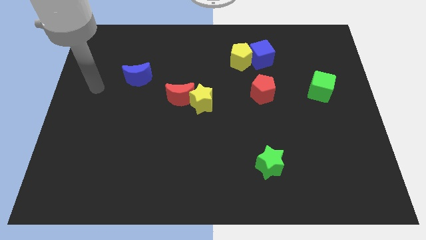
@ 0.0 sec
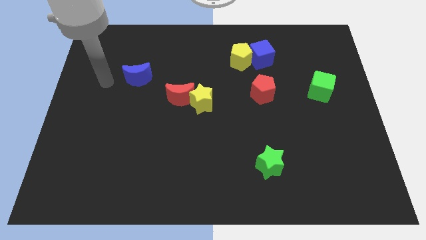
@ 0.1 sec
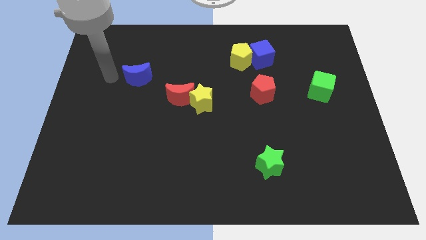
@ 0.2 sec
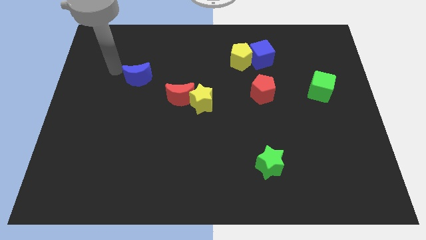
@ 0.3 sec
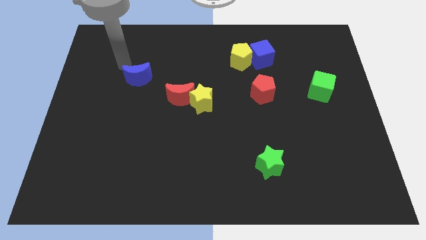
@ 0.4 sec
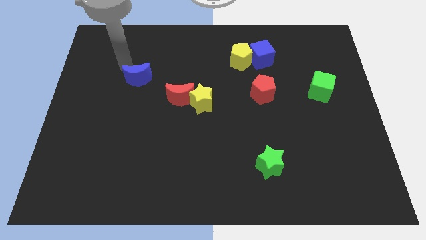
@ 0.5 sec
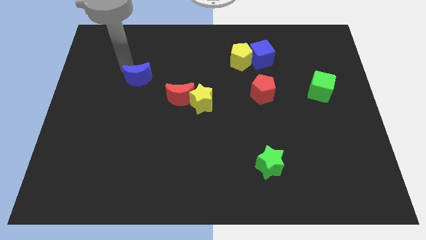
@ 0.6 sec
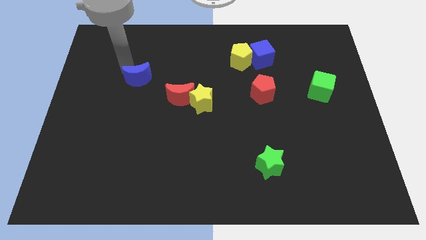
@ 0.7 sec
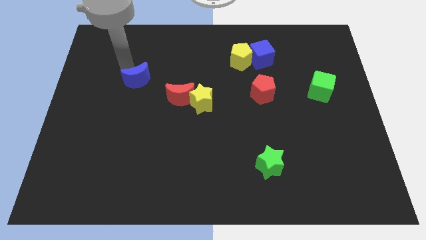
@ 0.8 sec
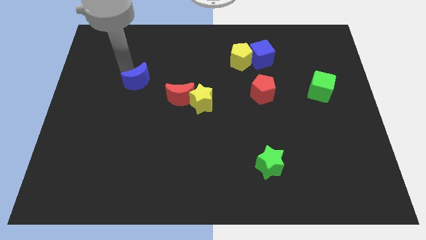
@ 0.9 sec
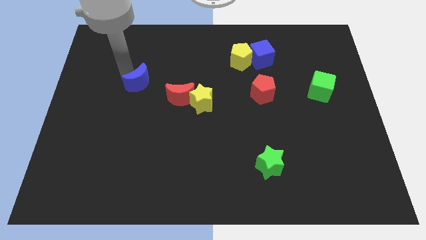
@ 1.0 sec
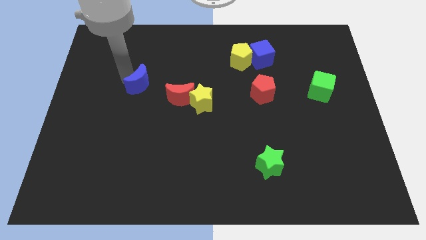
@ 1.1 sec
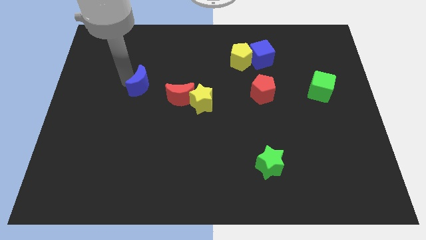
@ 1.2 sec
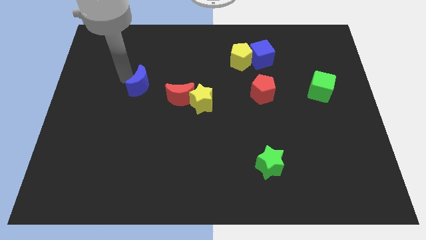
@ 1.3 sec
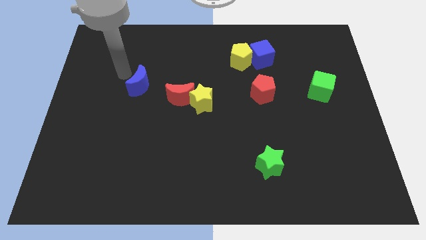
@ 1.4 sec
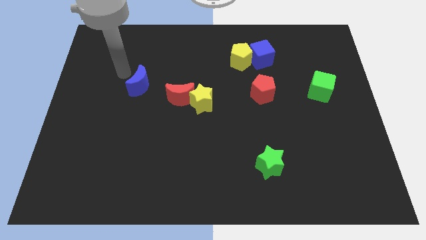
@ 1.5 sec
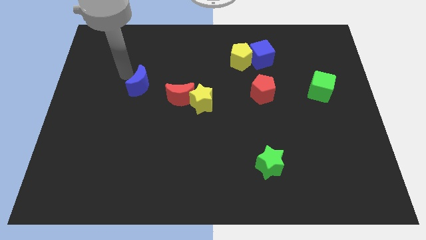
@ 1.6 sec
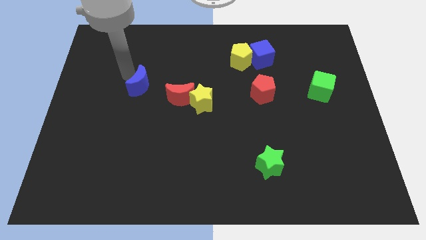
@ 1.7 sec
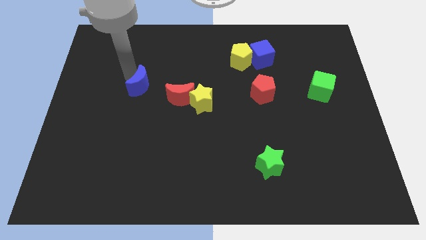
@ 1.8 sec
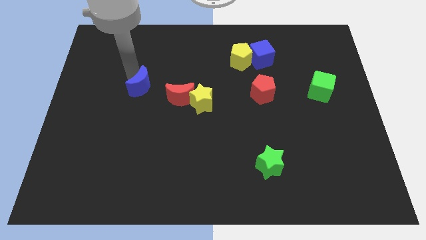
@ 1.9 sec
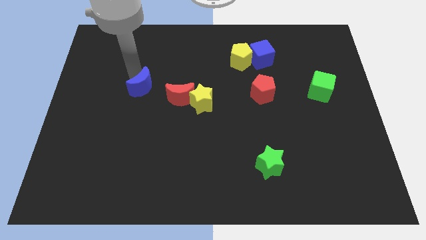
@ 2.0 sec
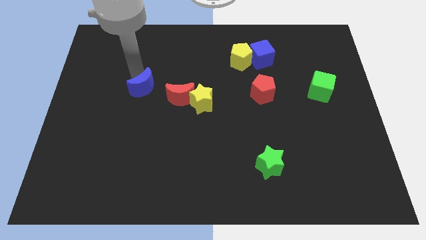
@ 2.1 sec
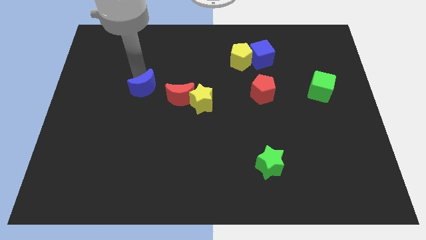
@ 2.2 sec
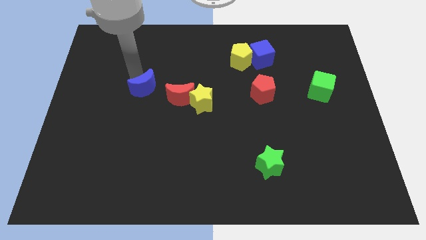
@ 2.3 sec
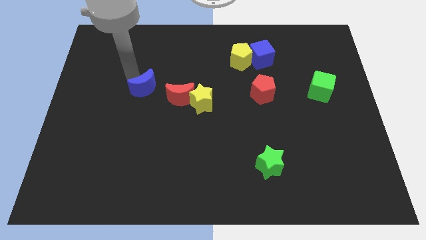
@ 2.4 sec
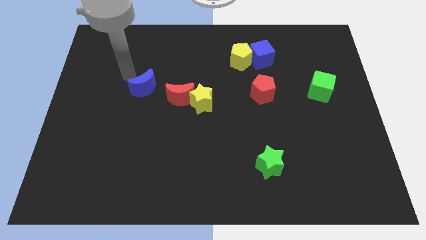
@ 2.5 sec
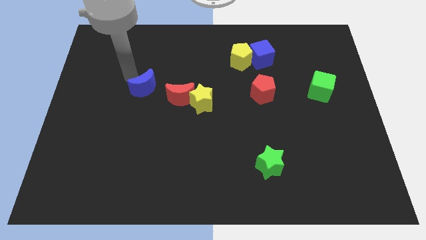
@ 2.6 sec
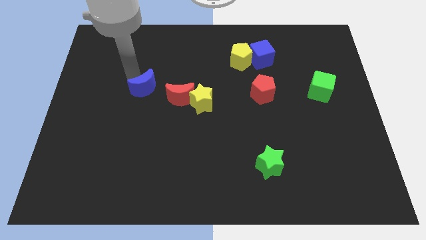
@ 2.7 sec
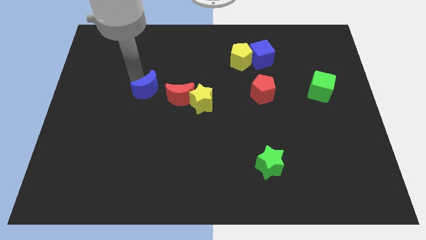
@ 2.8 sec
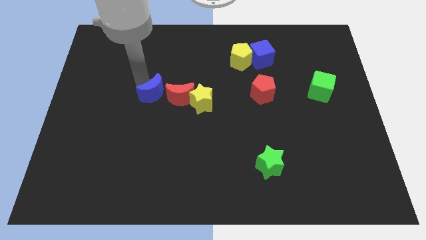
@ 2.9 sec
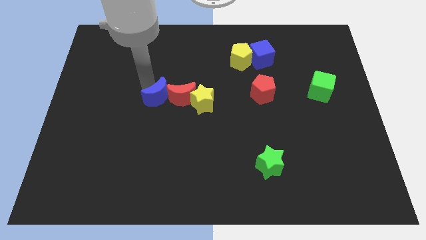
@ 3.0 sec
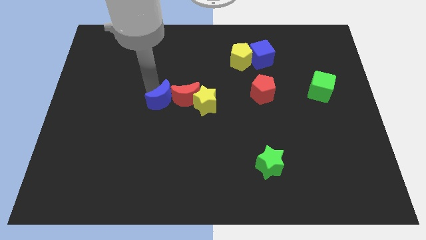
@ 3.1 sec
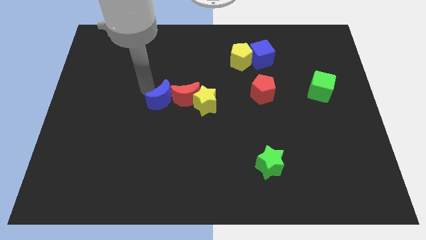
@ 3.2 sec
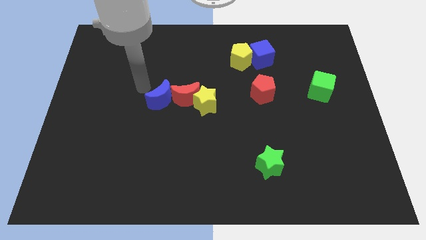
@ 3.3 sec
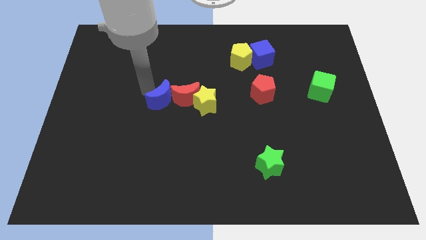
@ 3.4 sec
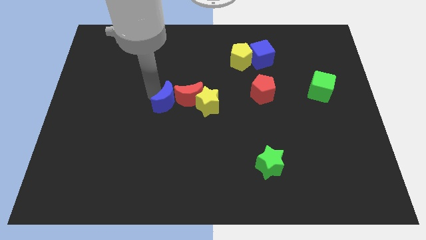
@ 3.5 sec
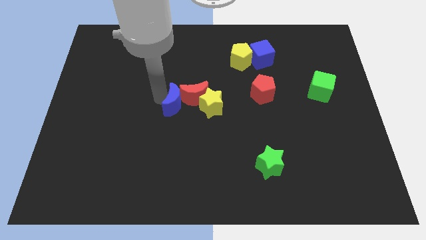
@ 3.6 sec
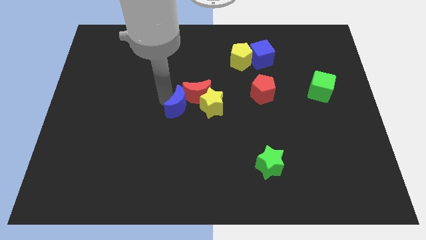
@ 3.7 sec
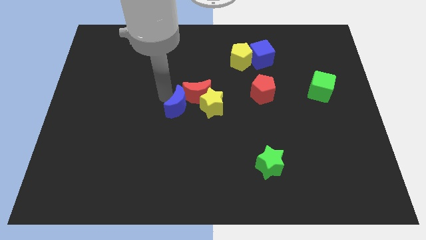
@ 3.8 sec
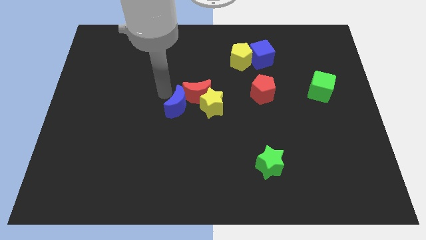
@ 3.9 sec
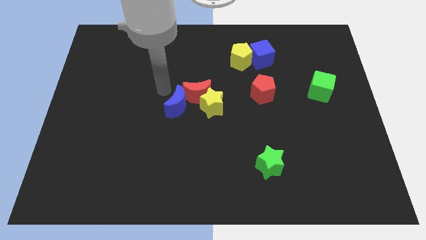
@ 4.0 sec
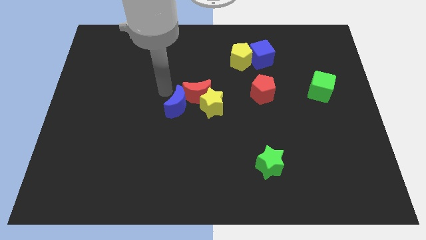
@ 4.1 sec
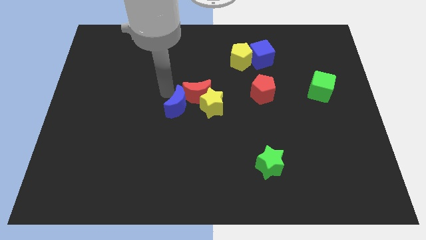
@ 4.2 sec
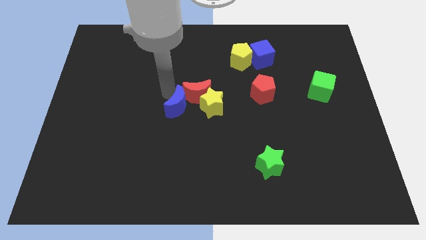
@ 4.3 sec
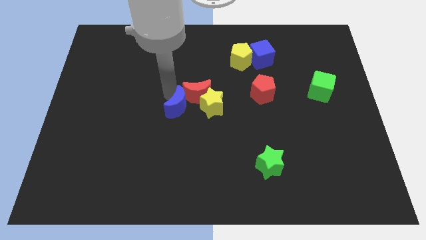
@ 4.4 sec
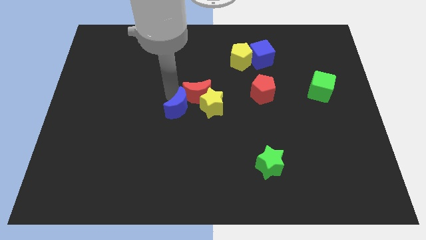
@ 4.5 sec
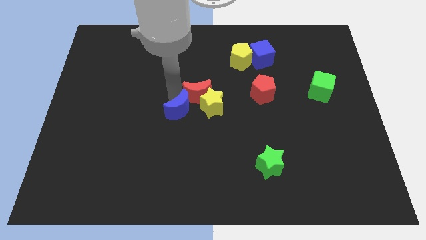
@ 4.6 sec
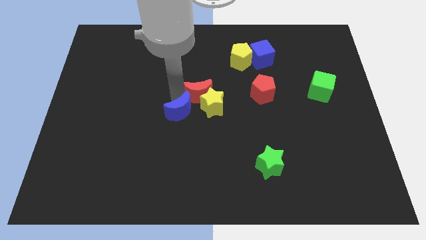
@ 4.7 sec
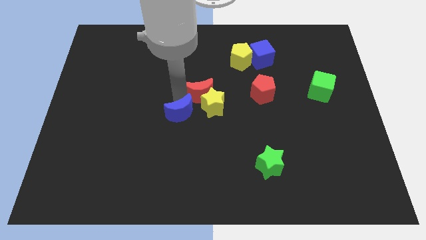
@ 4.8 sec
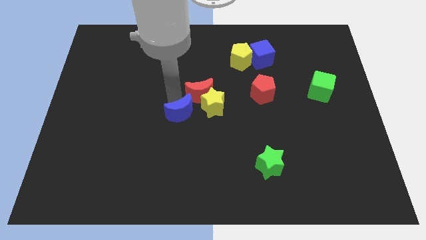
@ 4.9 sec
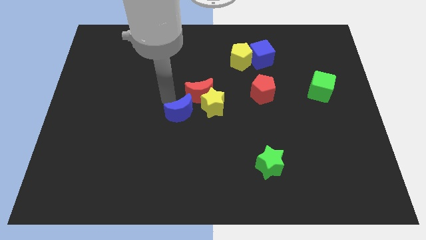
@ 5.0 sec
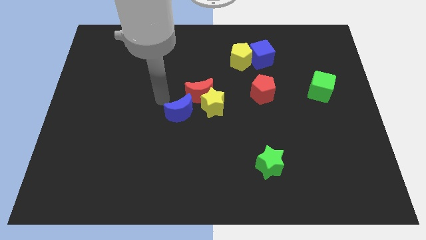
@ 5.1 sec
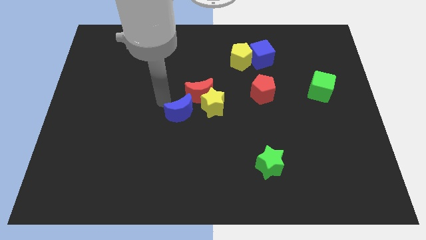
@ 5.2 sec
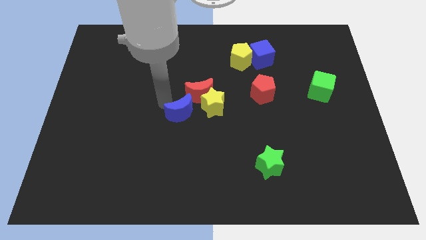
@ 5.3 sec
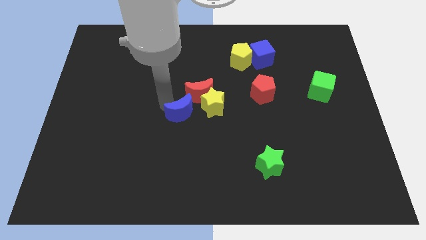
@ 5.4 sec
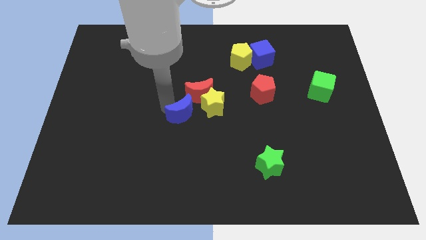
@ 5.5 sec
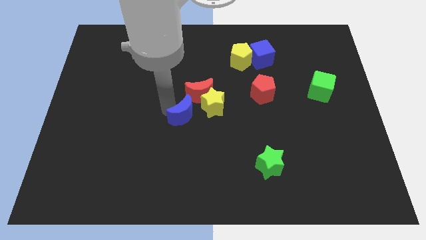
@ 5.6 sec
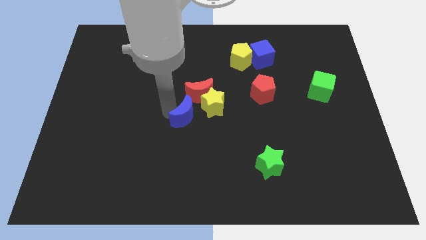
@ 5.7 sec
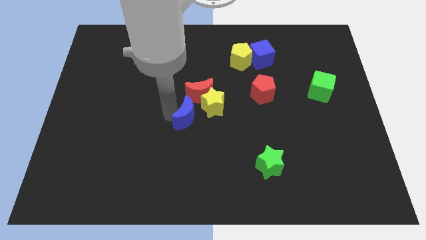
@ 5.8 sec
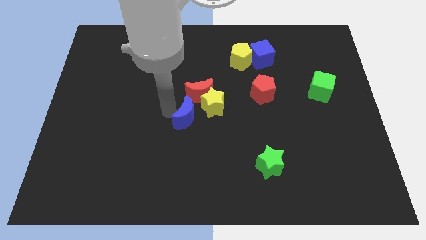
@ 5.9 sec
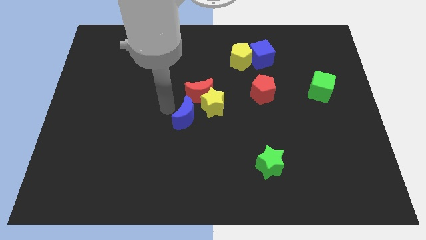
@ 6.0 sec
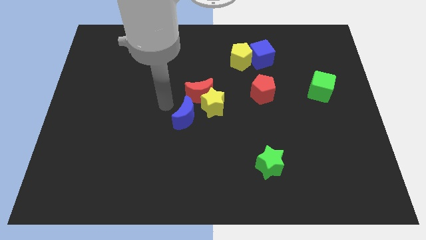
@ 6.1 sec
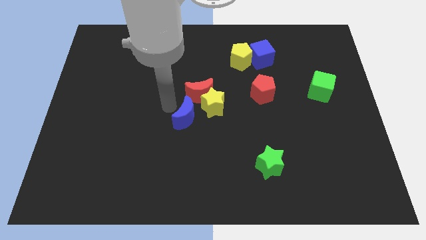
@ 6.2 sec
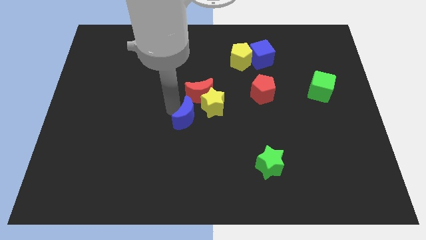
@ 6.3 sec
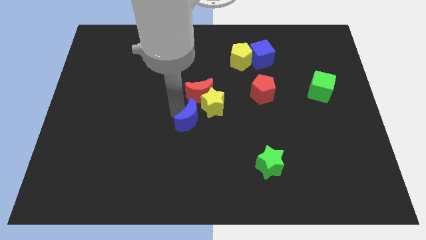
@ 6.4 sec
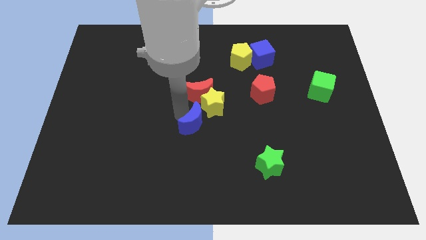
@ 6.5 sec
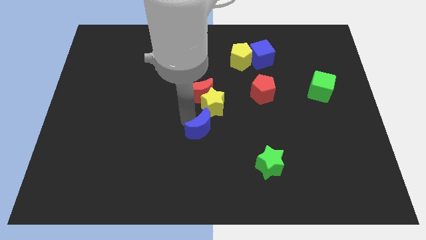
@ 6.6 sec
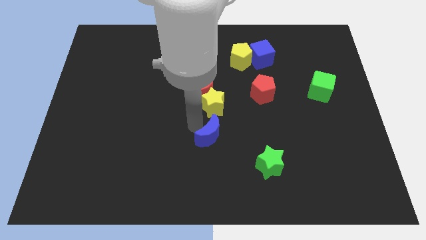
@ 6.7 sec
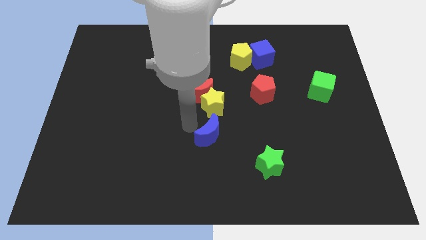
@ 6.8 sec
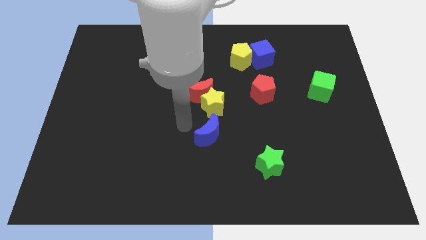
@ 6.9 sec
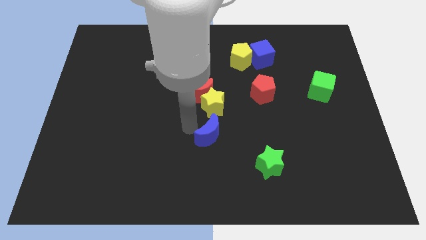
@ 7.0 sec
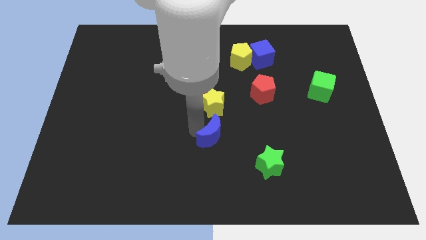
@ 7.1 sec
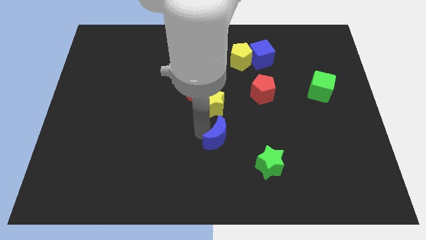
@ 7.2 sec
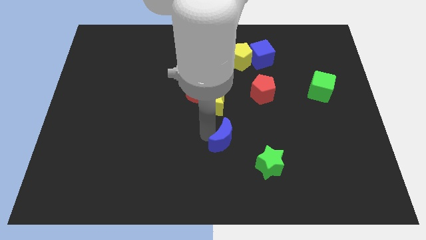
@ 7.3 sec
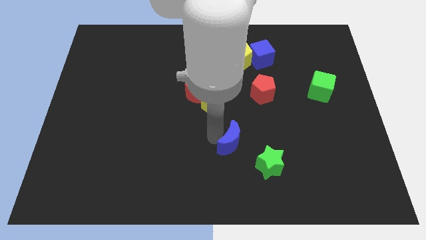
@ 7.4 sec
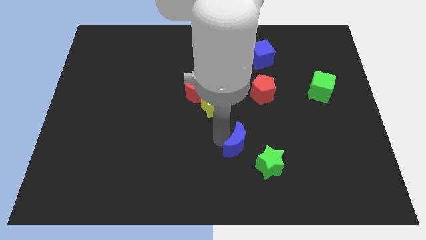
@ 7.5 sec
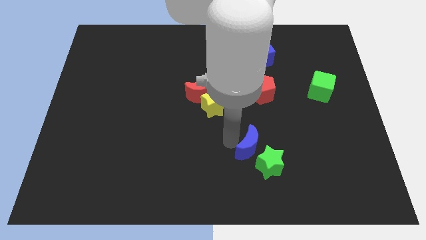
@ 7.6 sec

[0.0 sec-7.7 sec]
push the blue moon towards the green star
